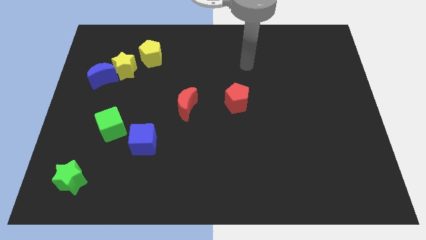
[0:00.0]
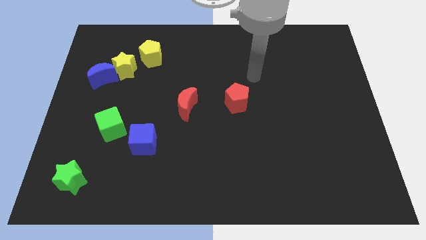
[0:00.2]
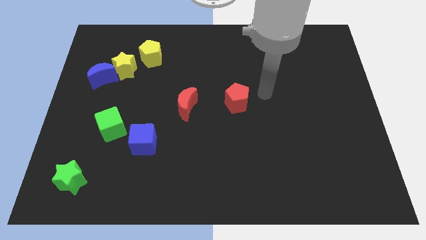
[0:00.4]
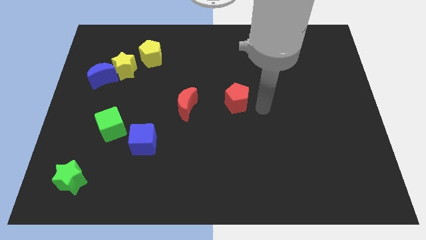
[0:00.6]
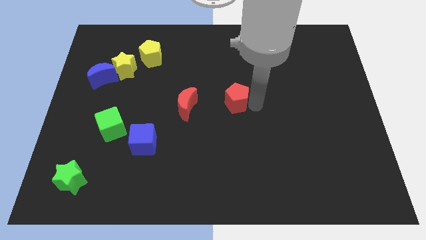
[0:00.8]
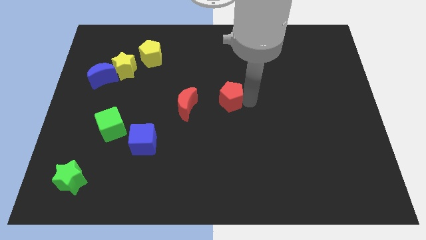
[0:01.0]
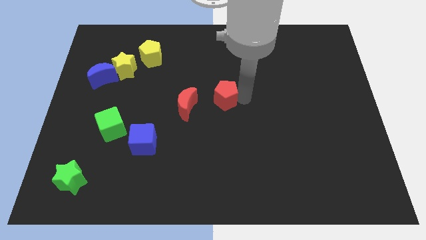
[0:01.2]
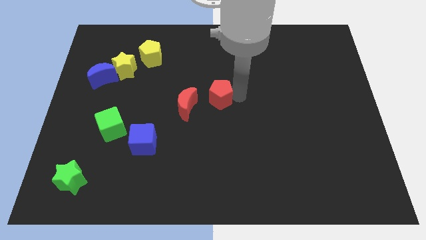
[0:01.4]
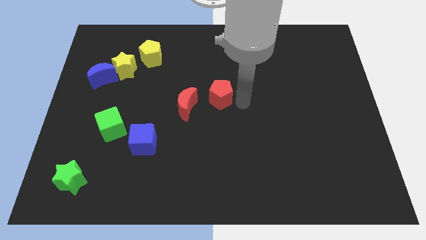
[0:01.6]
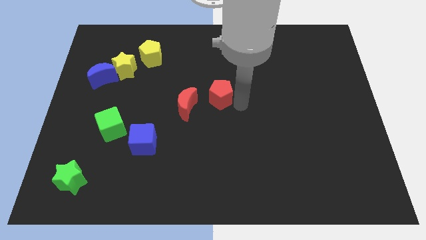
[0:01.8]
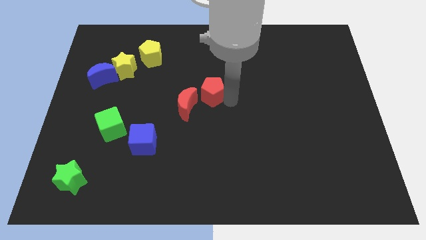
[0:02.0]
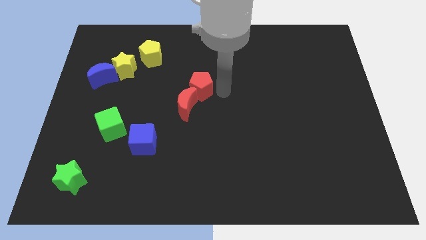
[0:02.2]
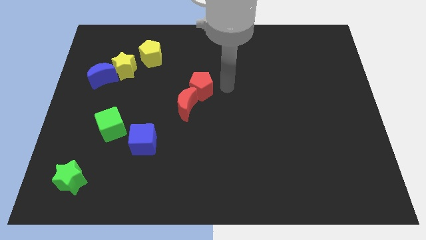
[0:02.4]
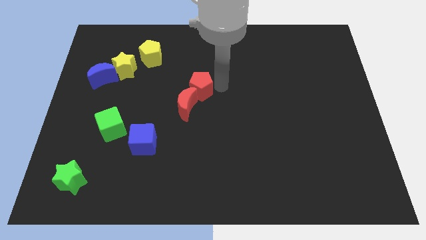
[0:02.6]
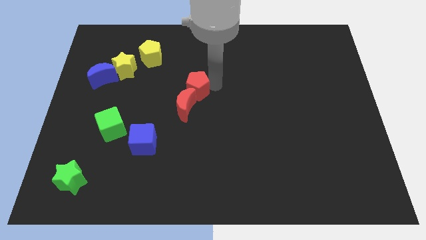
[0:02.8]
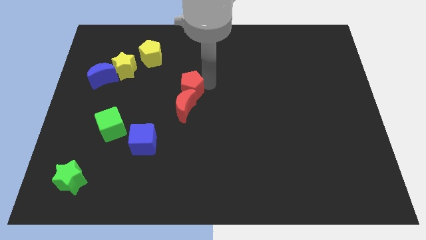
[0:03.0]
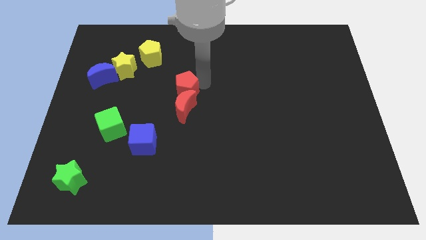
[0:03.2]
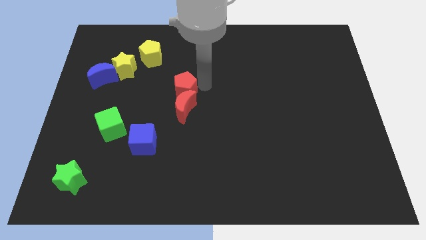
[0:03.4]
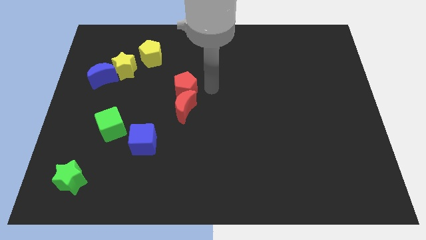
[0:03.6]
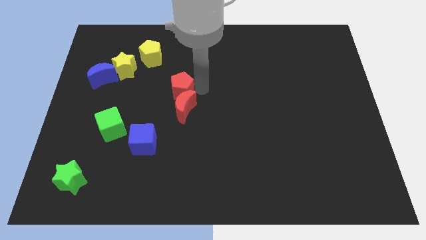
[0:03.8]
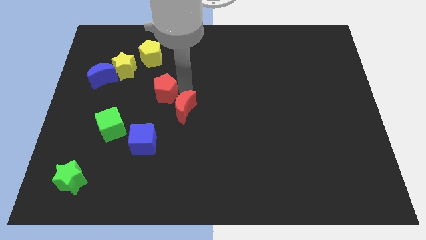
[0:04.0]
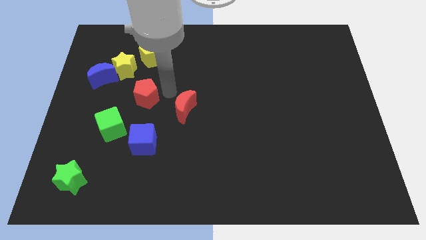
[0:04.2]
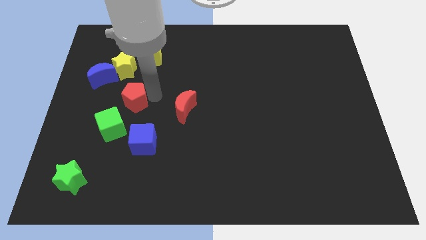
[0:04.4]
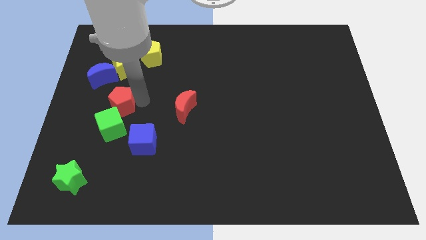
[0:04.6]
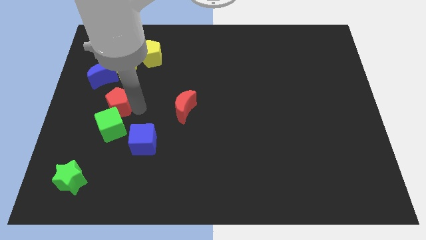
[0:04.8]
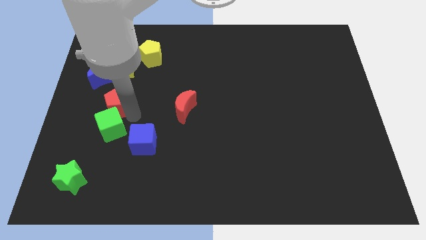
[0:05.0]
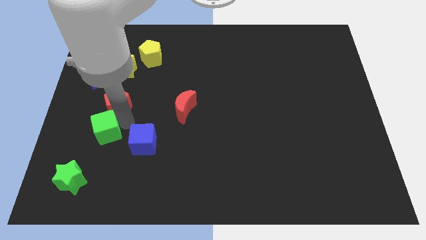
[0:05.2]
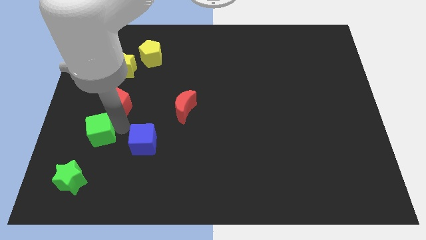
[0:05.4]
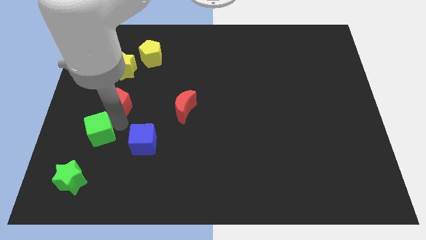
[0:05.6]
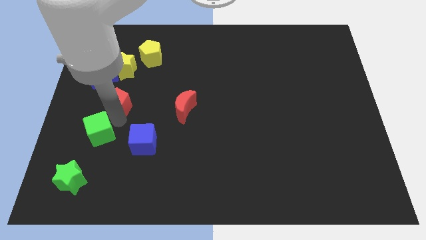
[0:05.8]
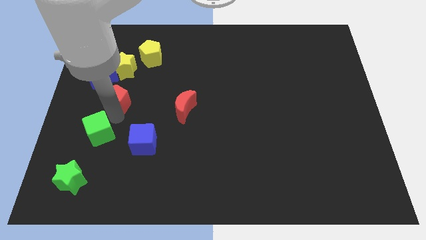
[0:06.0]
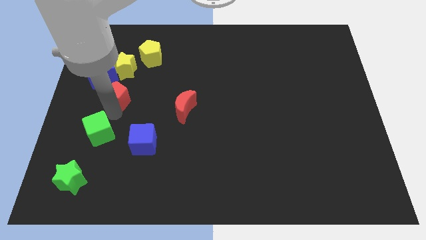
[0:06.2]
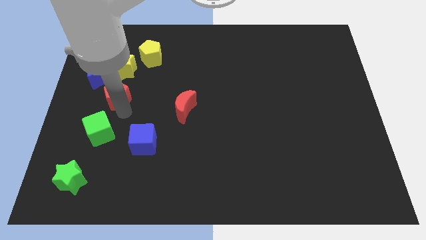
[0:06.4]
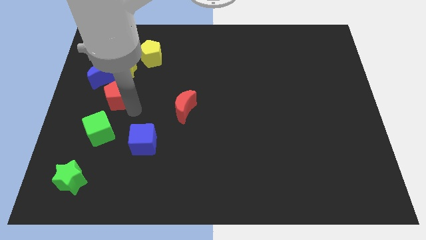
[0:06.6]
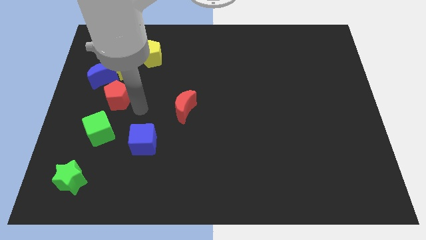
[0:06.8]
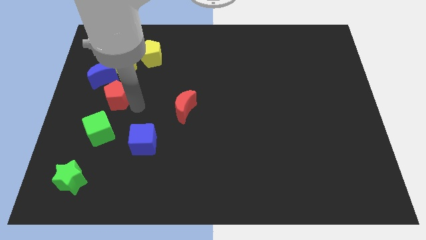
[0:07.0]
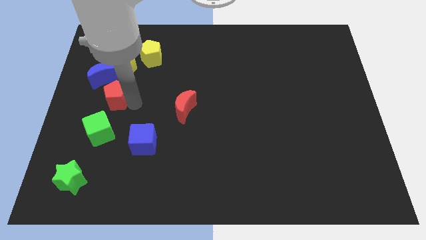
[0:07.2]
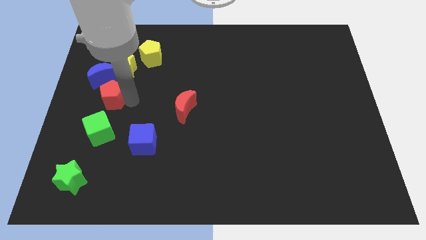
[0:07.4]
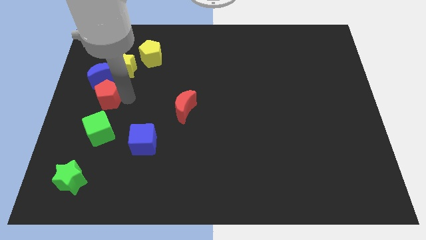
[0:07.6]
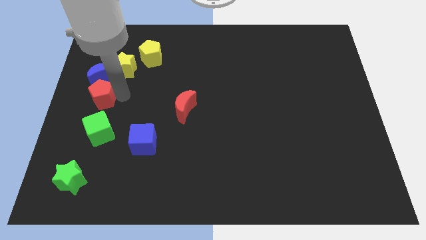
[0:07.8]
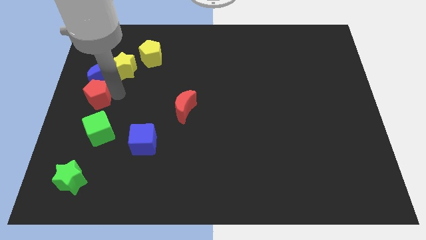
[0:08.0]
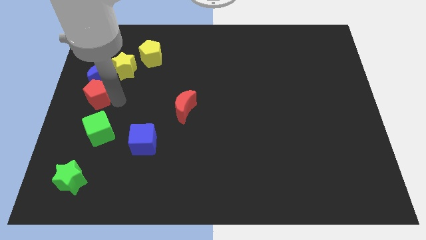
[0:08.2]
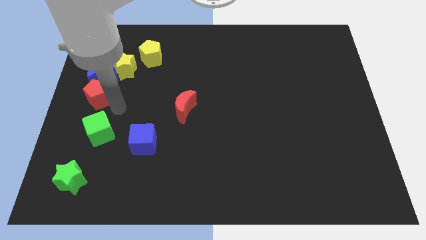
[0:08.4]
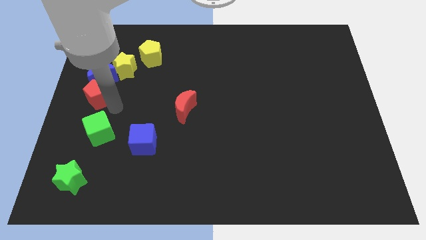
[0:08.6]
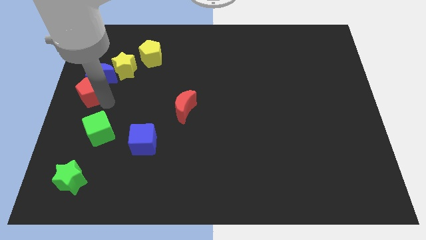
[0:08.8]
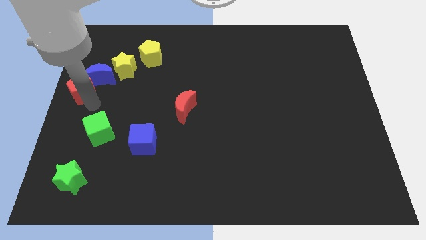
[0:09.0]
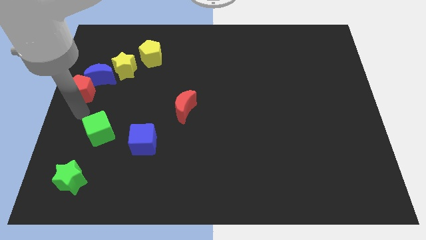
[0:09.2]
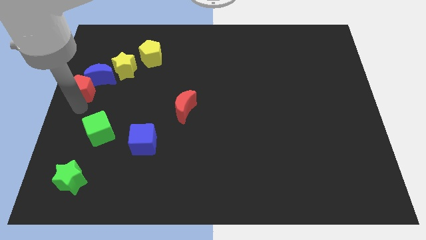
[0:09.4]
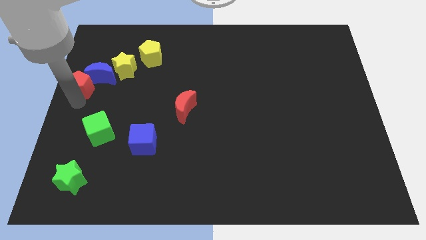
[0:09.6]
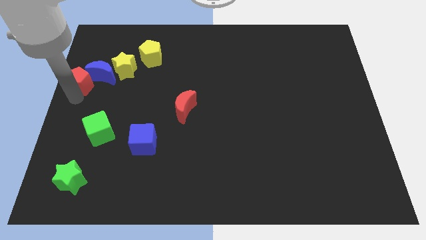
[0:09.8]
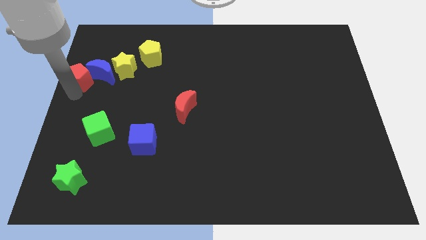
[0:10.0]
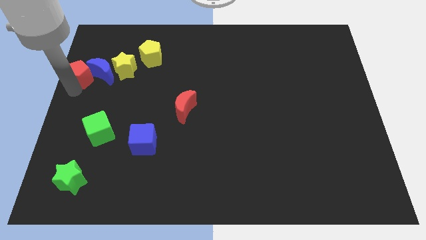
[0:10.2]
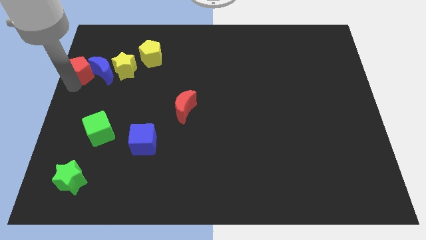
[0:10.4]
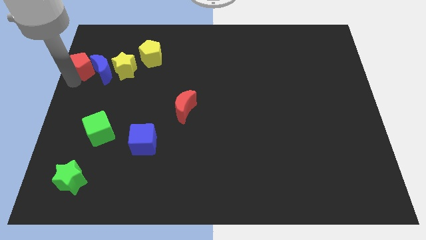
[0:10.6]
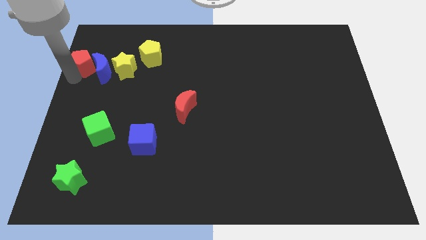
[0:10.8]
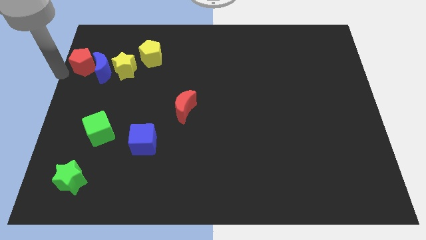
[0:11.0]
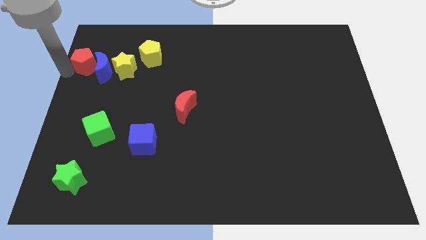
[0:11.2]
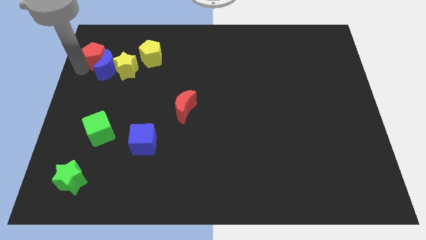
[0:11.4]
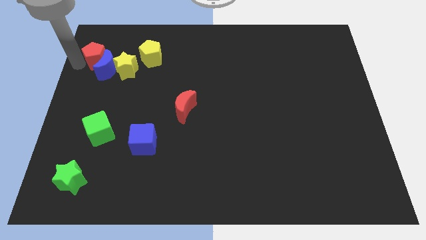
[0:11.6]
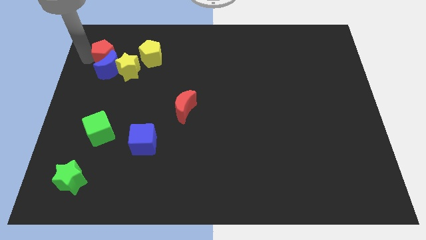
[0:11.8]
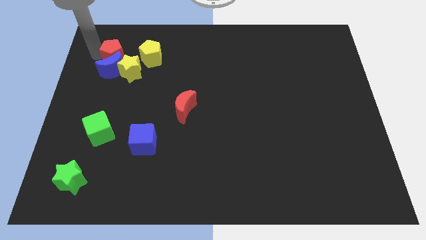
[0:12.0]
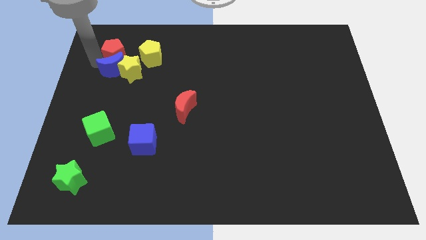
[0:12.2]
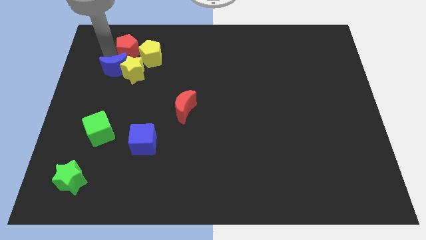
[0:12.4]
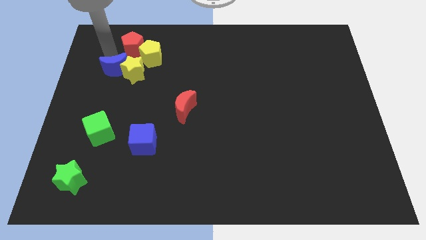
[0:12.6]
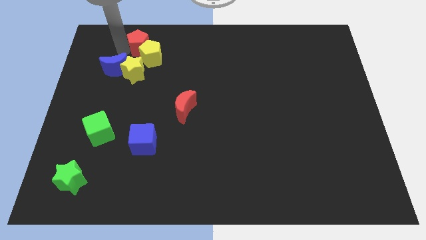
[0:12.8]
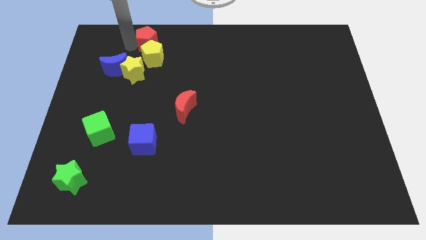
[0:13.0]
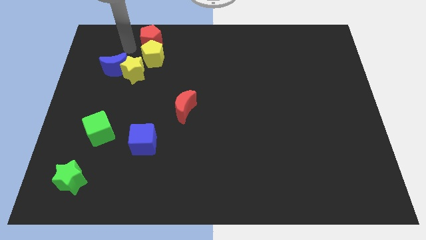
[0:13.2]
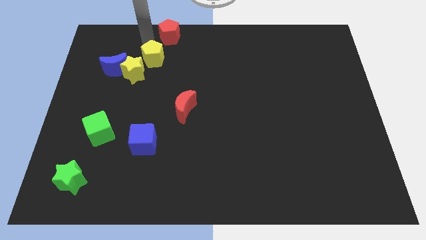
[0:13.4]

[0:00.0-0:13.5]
move the red pentagon to the top side
